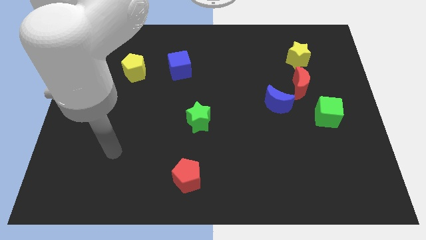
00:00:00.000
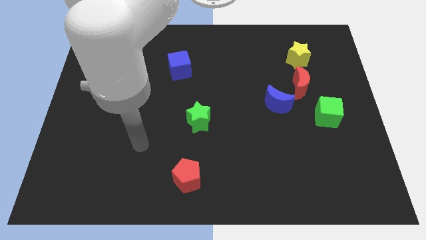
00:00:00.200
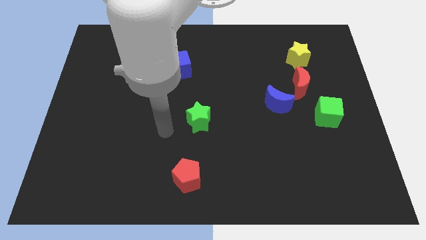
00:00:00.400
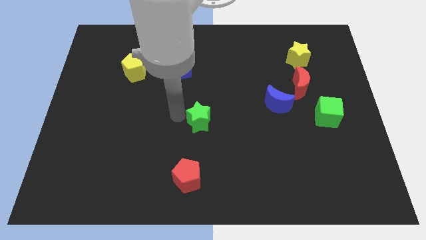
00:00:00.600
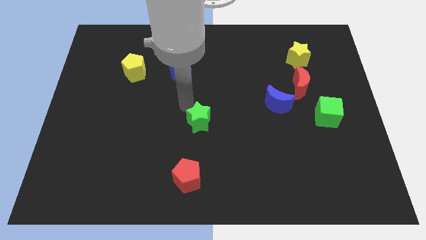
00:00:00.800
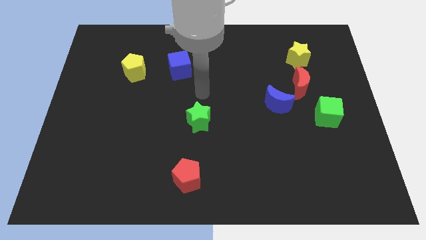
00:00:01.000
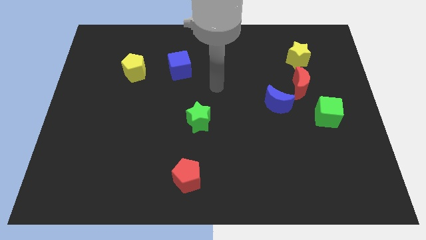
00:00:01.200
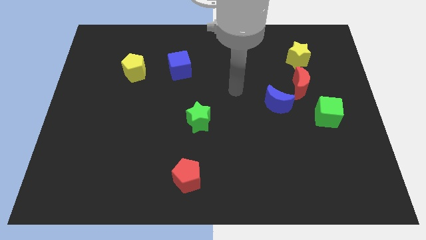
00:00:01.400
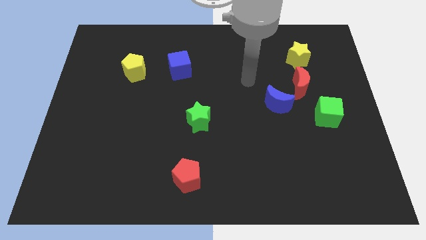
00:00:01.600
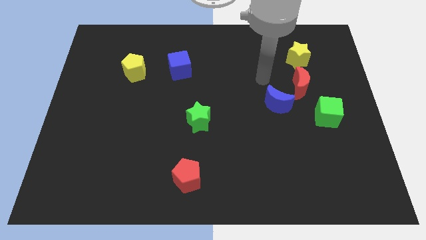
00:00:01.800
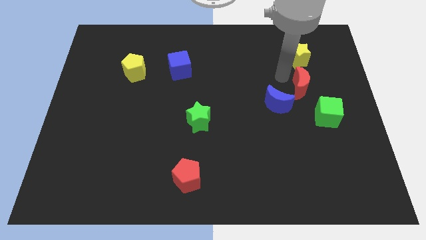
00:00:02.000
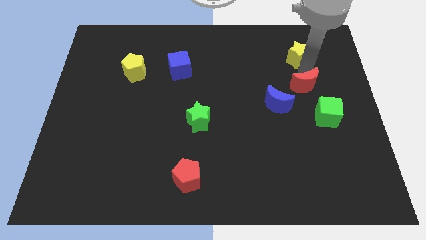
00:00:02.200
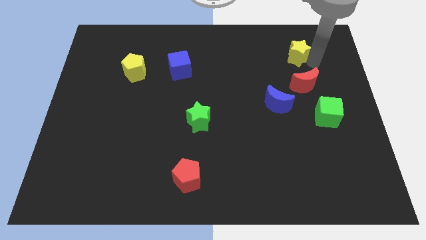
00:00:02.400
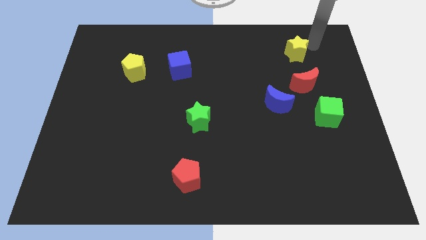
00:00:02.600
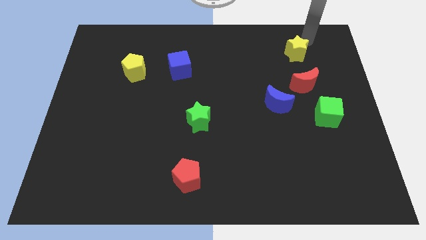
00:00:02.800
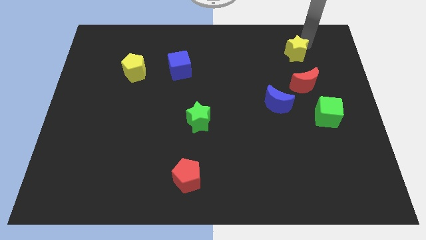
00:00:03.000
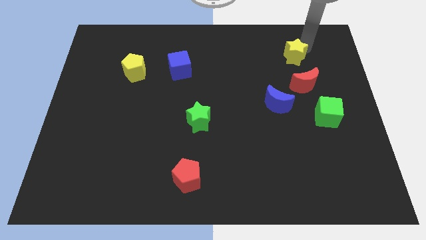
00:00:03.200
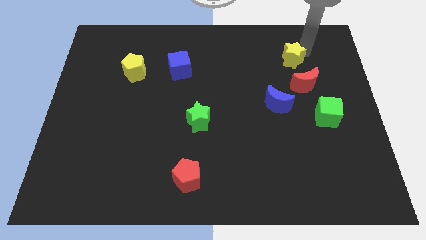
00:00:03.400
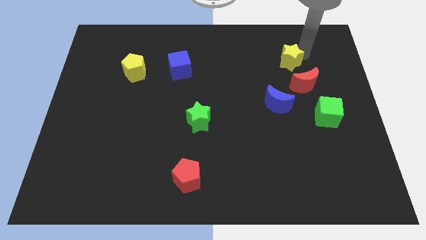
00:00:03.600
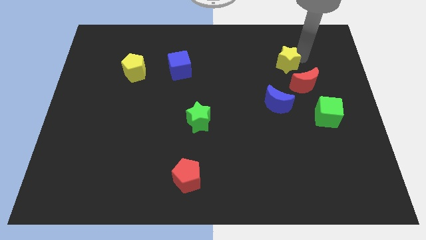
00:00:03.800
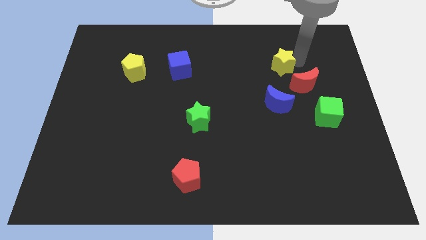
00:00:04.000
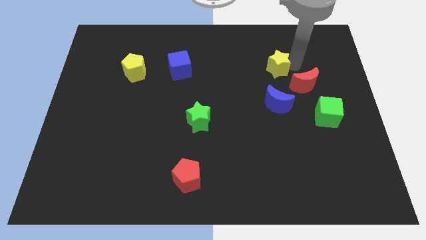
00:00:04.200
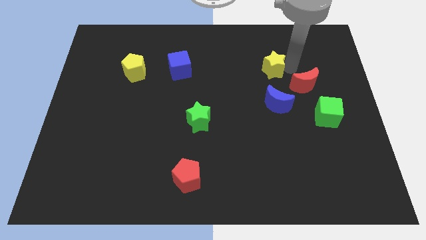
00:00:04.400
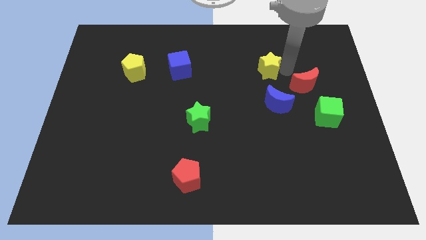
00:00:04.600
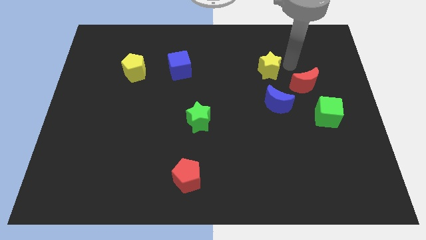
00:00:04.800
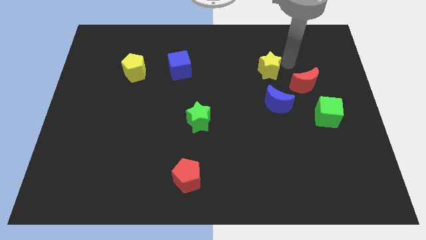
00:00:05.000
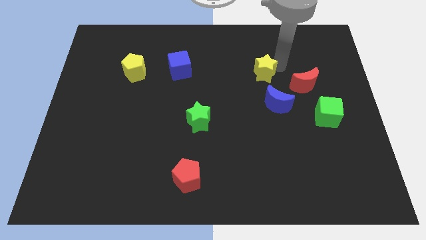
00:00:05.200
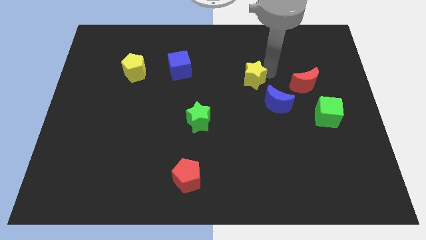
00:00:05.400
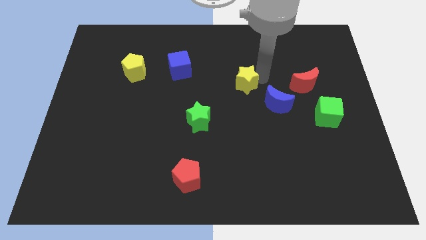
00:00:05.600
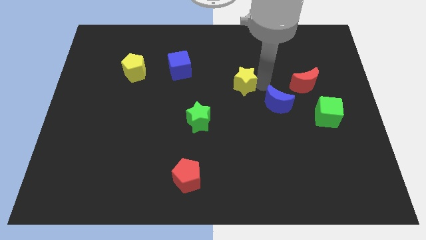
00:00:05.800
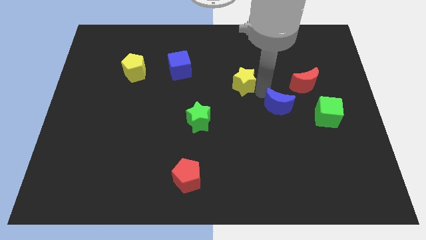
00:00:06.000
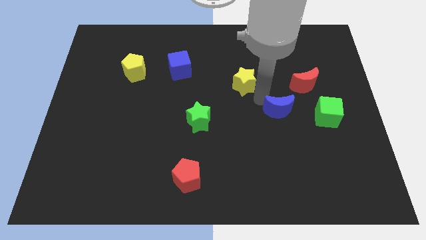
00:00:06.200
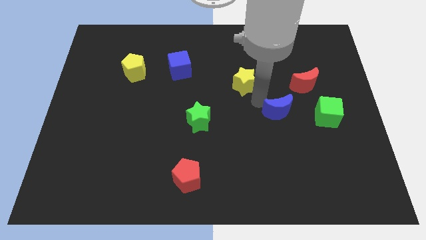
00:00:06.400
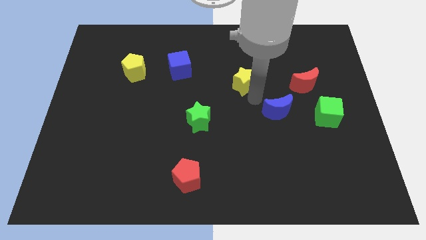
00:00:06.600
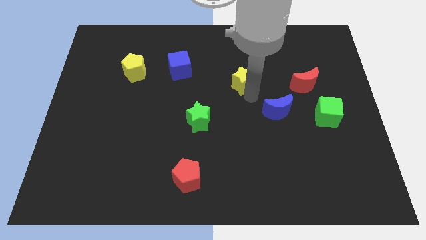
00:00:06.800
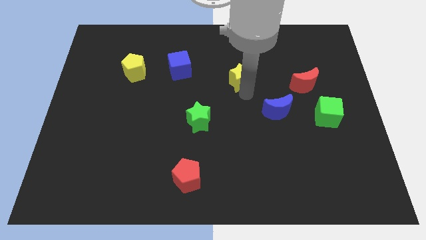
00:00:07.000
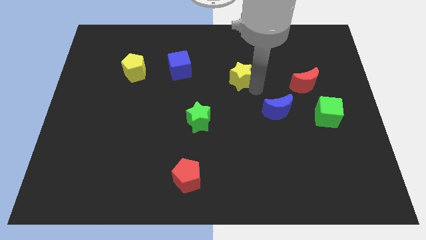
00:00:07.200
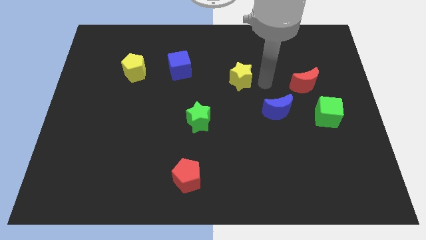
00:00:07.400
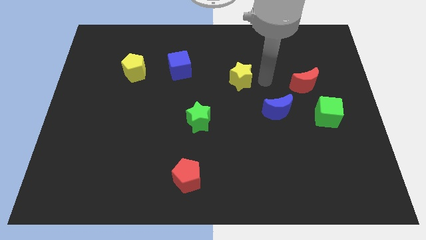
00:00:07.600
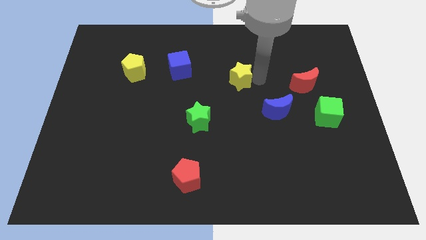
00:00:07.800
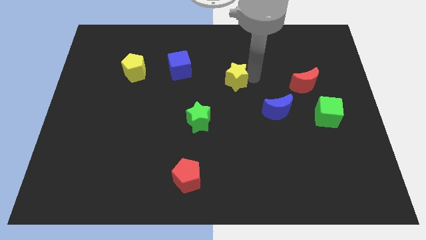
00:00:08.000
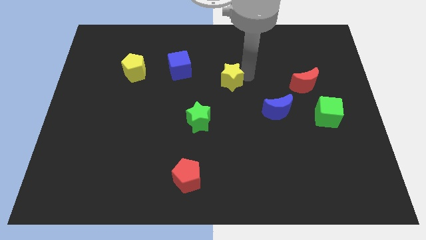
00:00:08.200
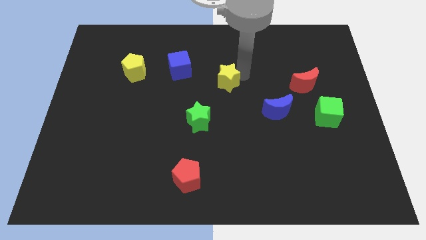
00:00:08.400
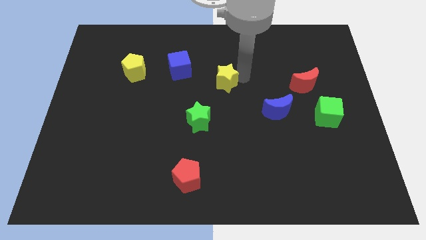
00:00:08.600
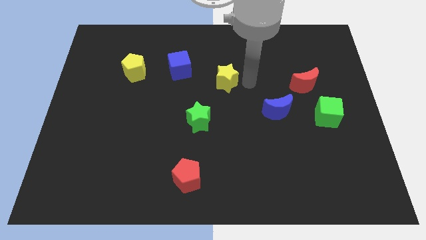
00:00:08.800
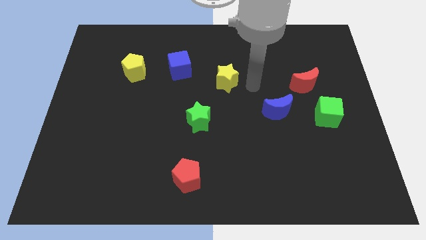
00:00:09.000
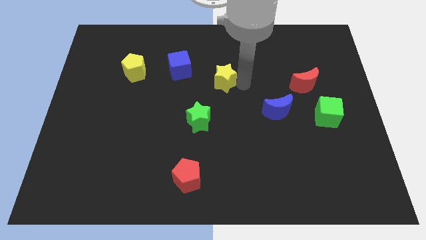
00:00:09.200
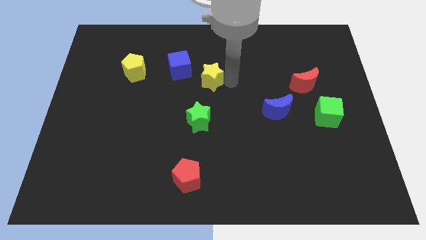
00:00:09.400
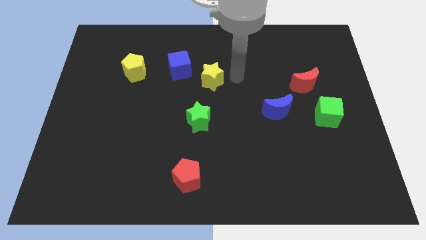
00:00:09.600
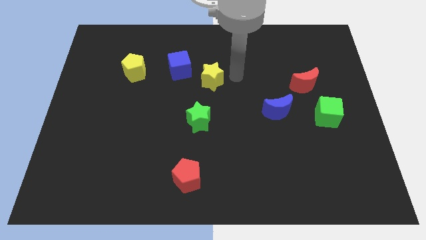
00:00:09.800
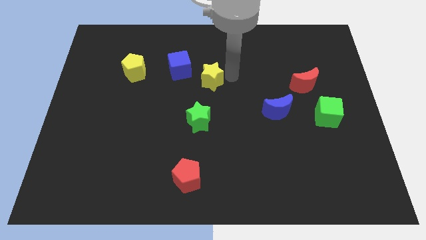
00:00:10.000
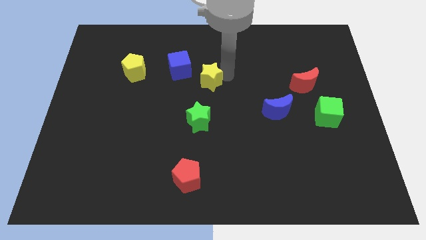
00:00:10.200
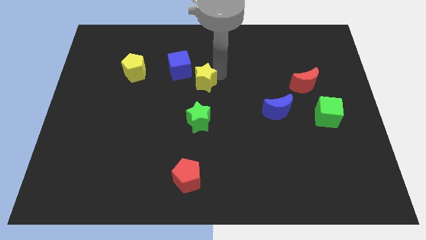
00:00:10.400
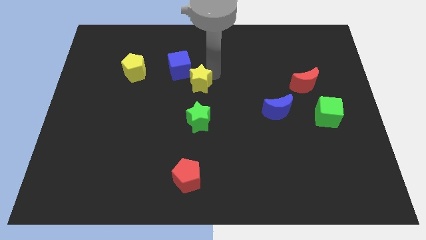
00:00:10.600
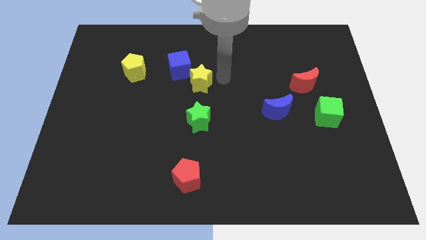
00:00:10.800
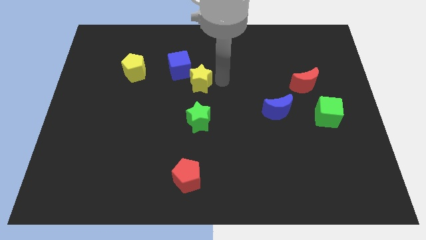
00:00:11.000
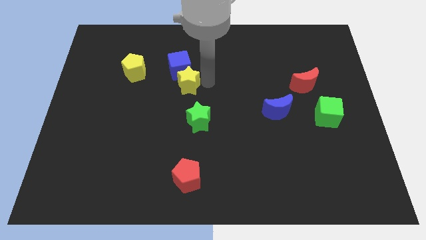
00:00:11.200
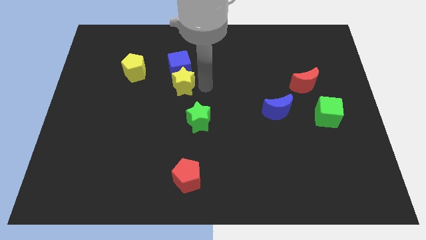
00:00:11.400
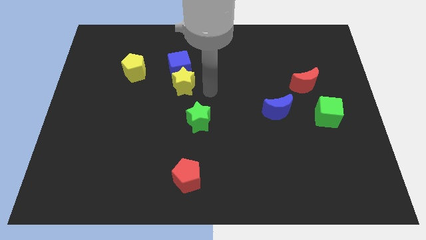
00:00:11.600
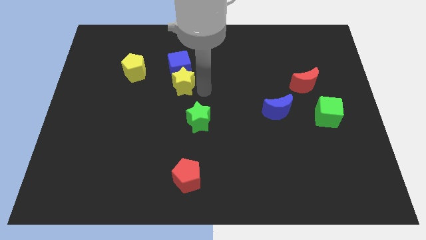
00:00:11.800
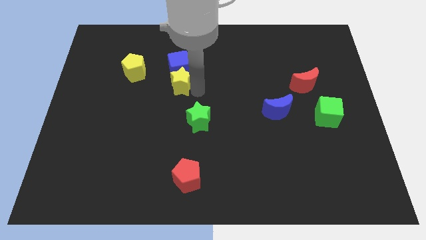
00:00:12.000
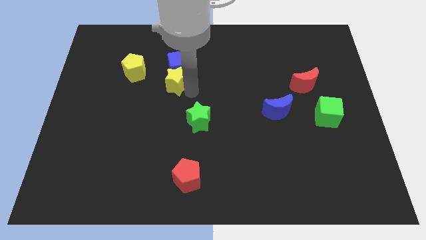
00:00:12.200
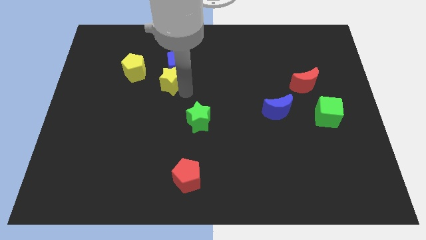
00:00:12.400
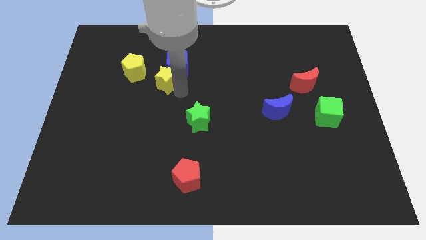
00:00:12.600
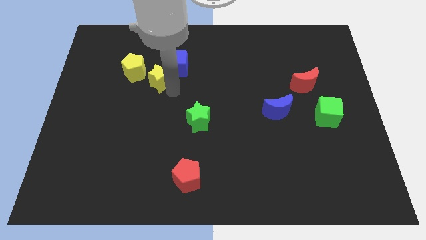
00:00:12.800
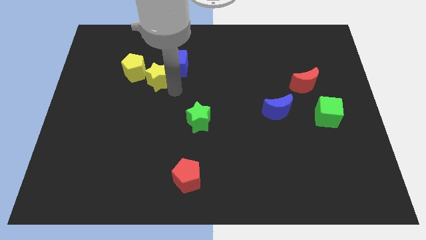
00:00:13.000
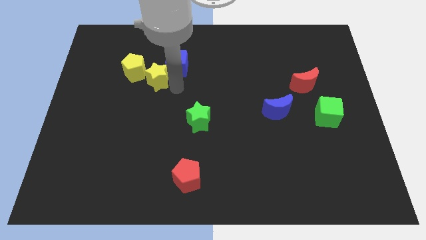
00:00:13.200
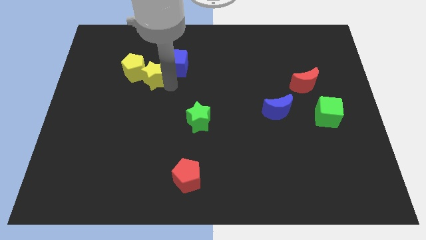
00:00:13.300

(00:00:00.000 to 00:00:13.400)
move the yellow star to the yellow pentagon
